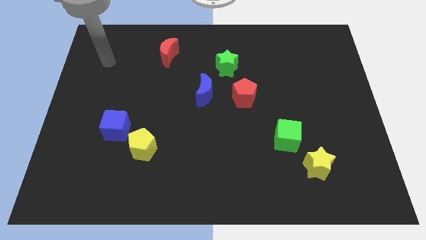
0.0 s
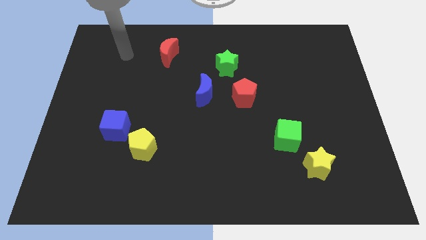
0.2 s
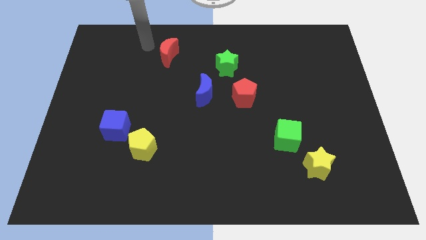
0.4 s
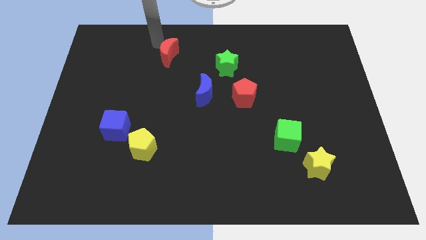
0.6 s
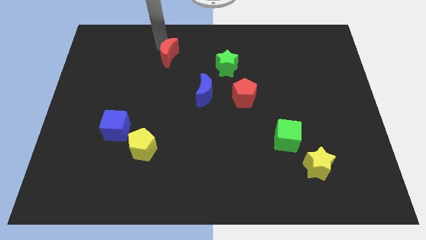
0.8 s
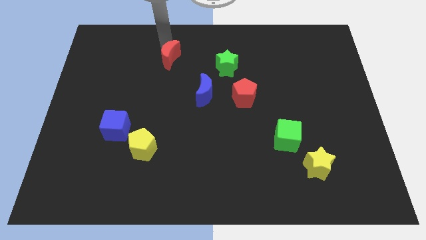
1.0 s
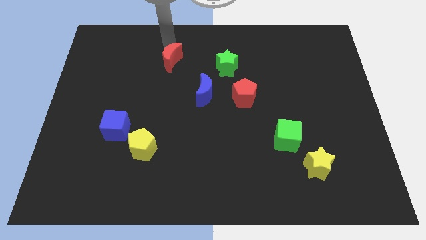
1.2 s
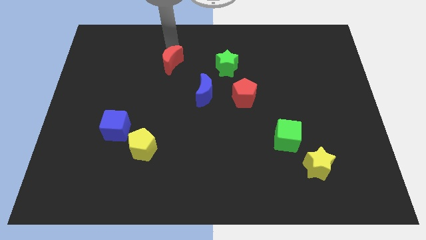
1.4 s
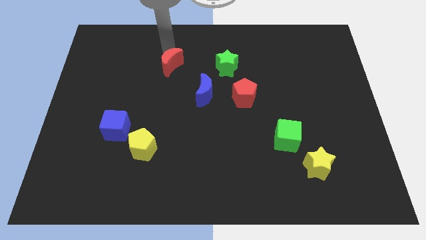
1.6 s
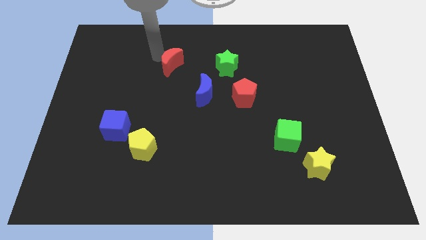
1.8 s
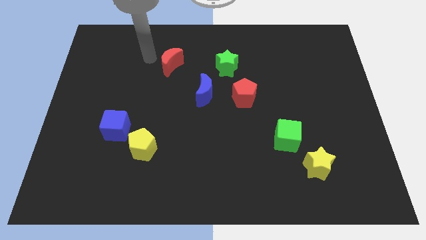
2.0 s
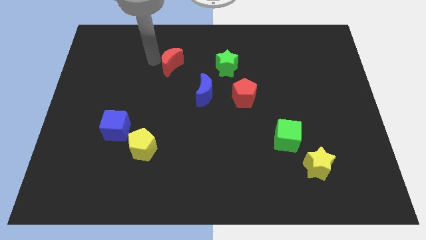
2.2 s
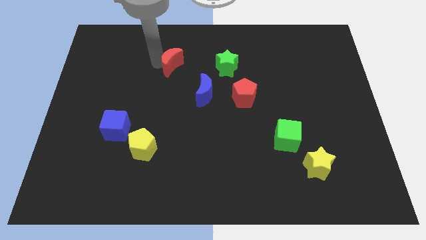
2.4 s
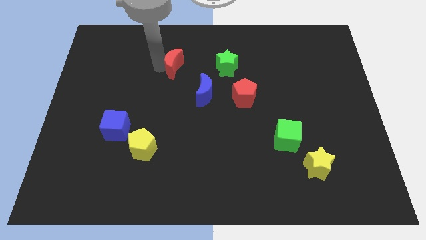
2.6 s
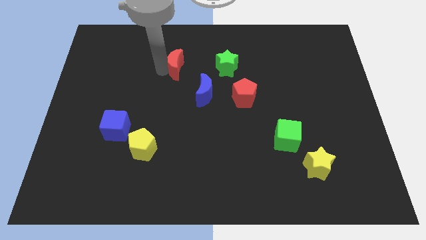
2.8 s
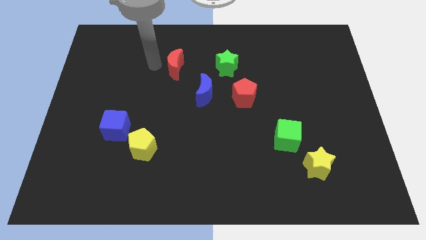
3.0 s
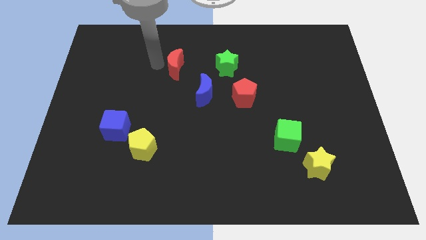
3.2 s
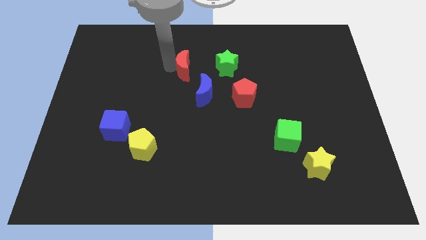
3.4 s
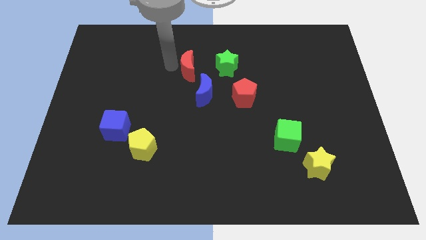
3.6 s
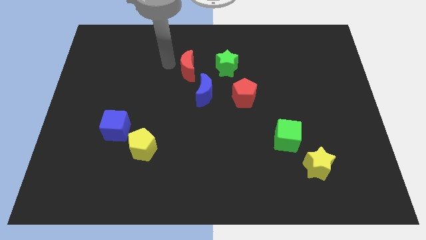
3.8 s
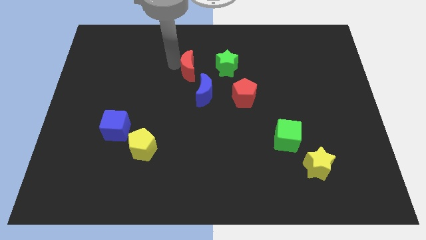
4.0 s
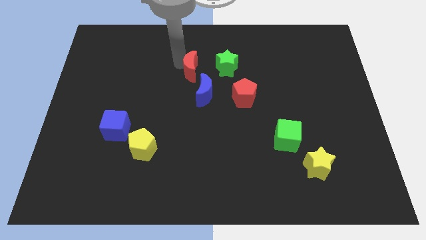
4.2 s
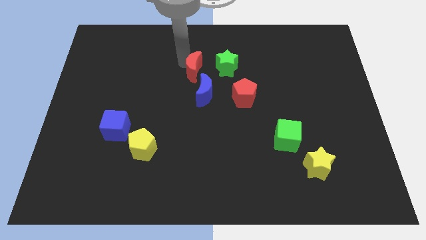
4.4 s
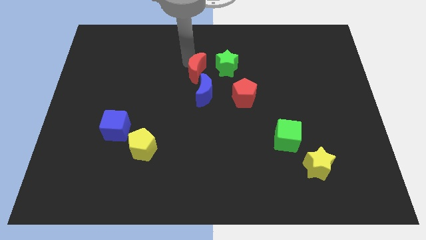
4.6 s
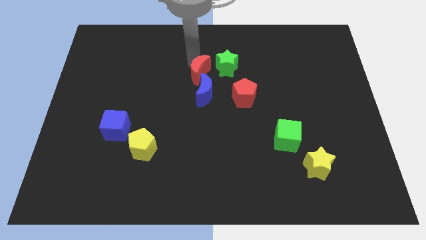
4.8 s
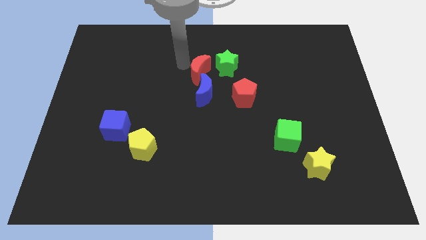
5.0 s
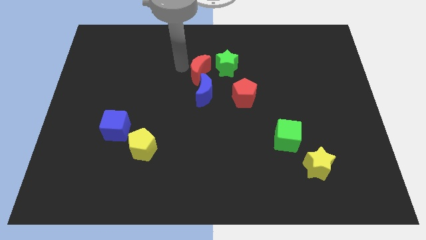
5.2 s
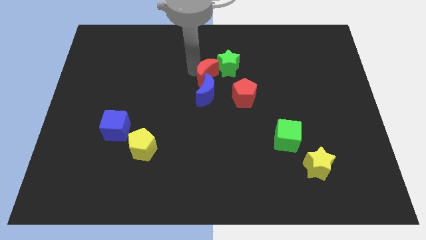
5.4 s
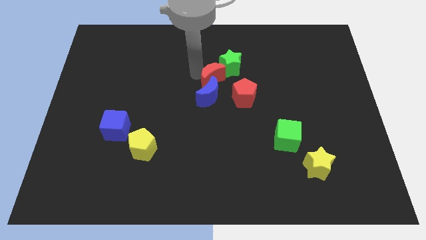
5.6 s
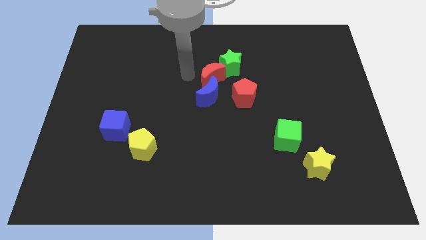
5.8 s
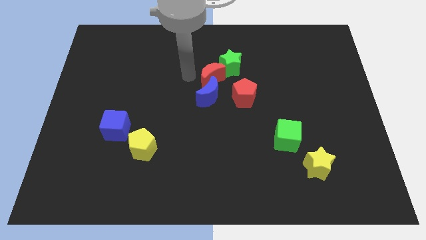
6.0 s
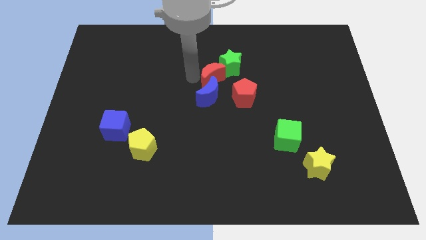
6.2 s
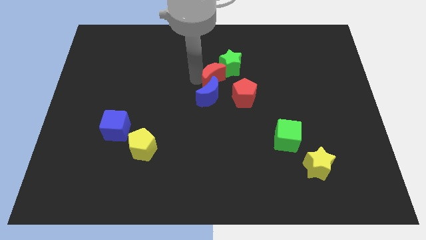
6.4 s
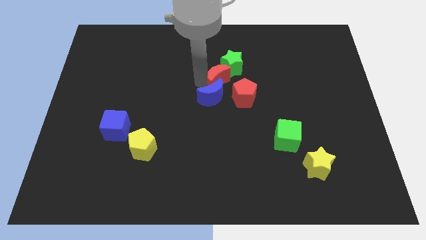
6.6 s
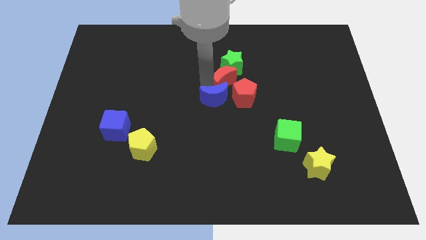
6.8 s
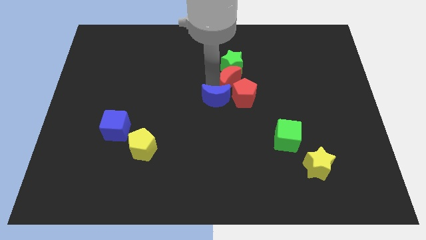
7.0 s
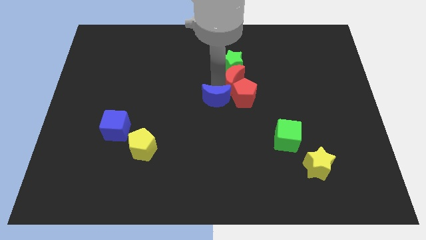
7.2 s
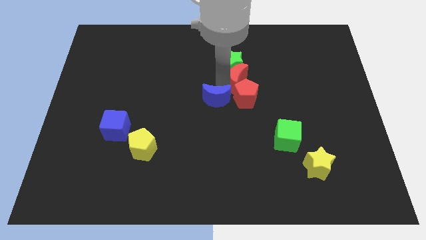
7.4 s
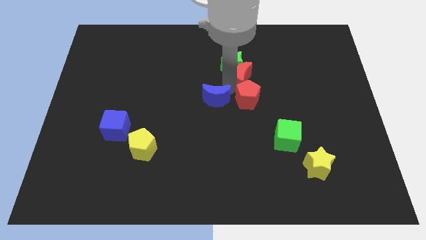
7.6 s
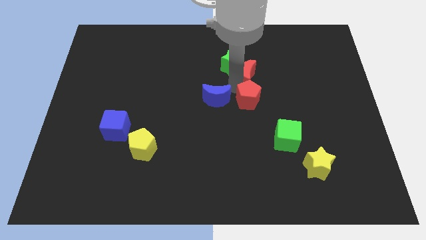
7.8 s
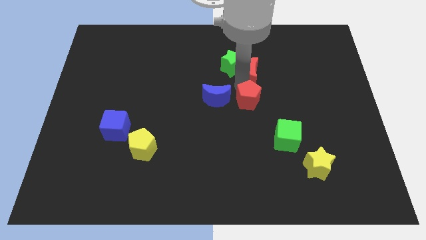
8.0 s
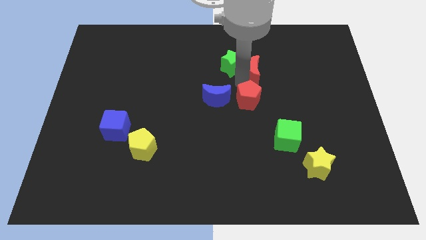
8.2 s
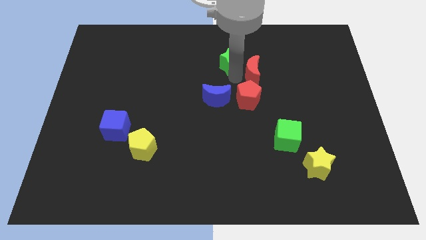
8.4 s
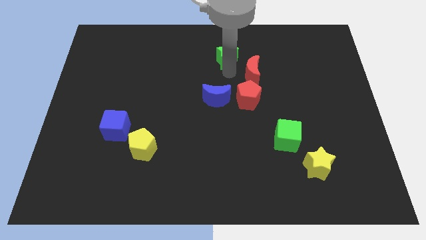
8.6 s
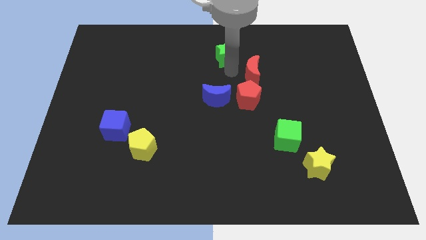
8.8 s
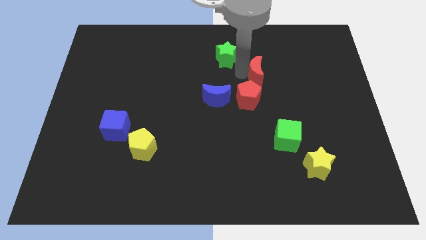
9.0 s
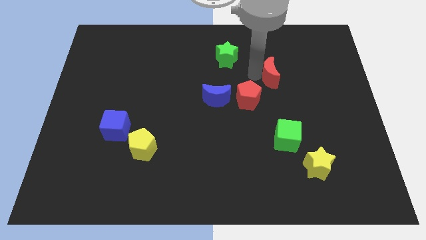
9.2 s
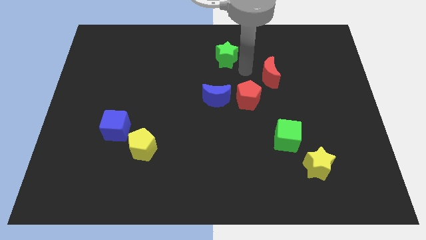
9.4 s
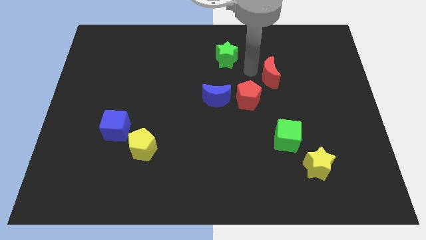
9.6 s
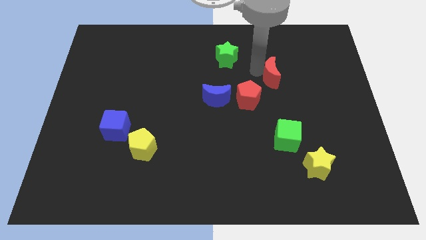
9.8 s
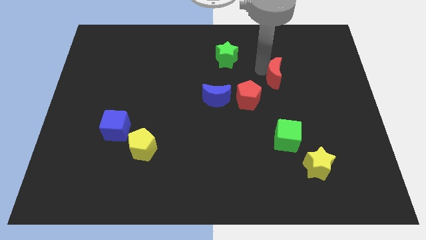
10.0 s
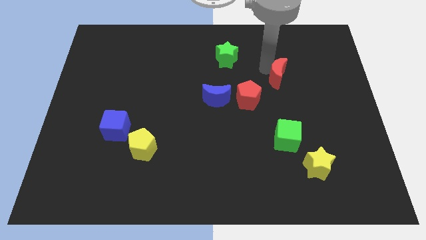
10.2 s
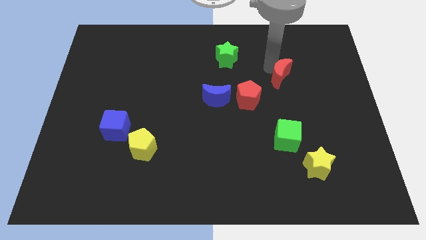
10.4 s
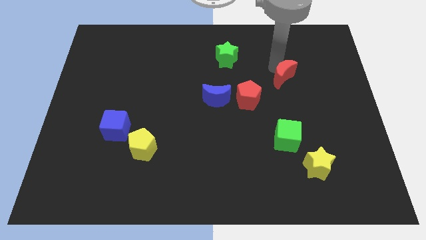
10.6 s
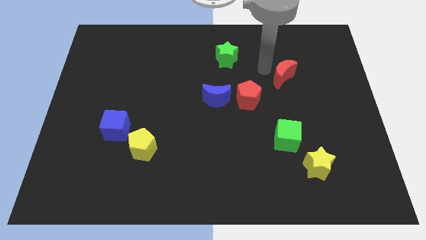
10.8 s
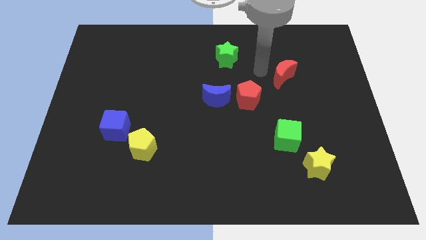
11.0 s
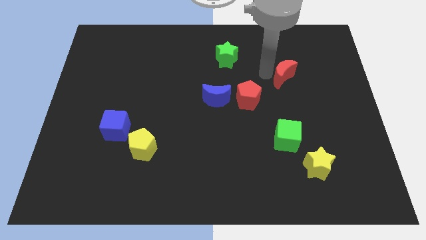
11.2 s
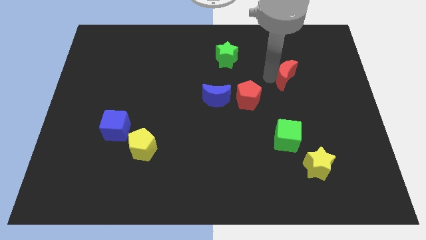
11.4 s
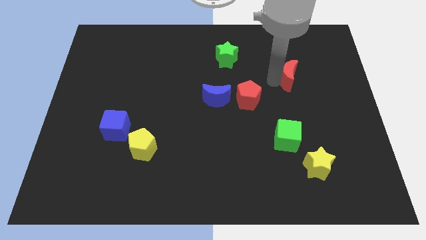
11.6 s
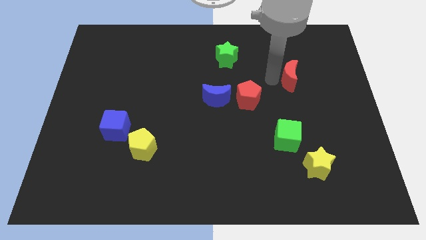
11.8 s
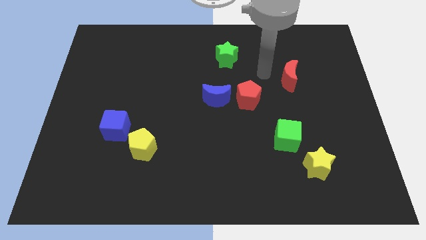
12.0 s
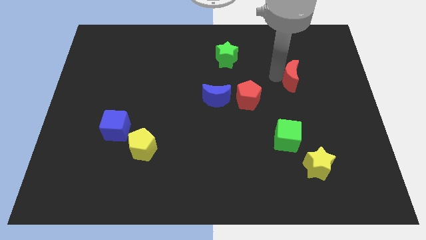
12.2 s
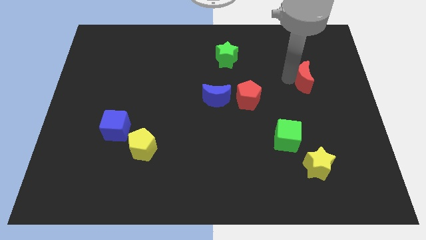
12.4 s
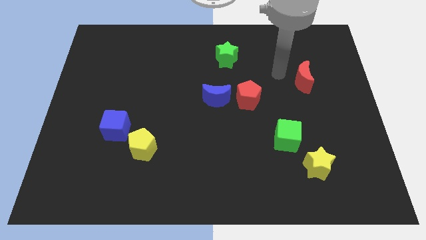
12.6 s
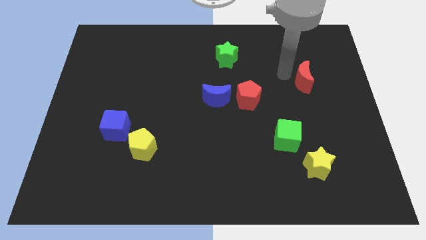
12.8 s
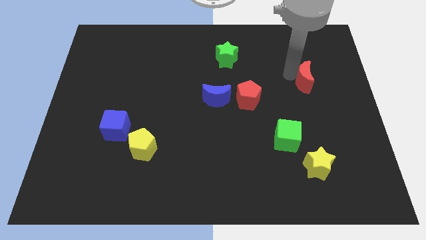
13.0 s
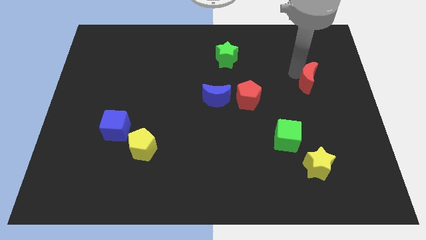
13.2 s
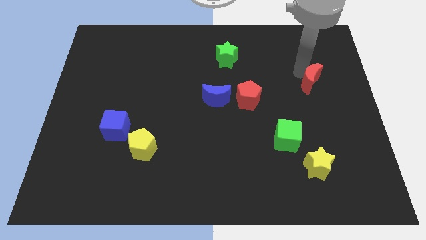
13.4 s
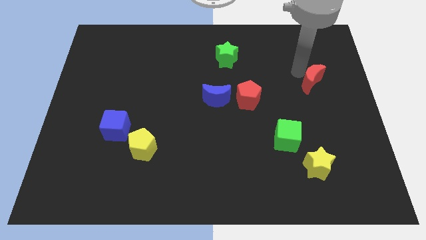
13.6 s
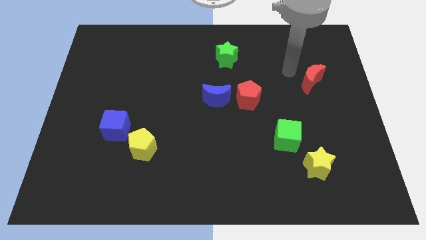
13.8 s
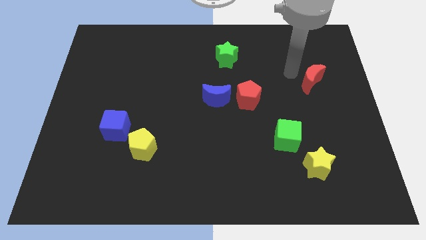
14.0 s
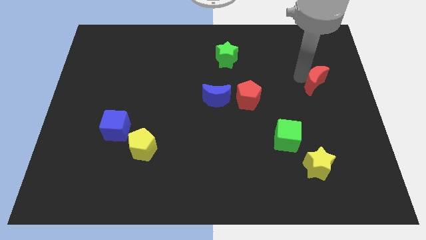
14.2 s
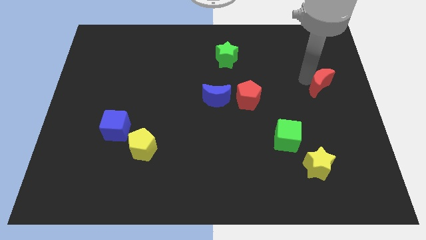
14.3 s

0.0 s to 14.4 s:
push the red moon to the center right
